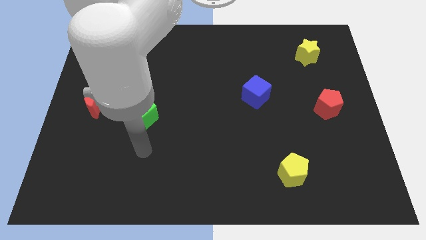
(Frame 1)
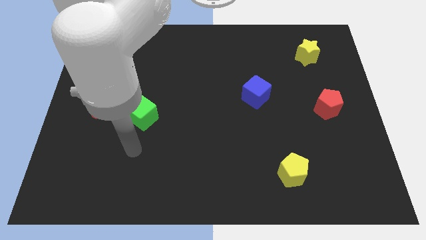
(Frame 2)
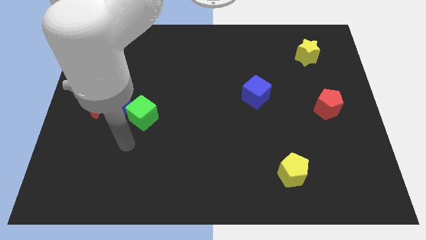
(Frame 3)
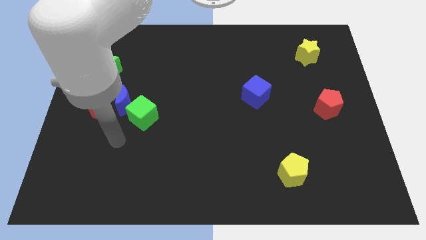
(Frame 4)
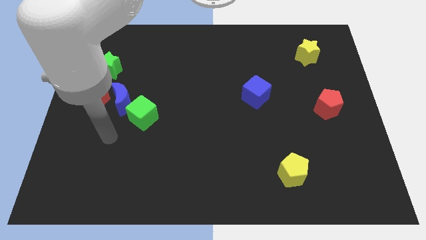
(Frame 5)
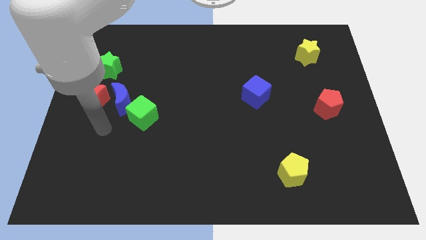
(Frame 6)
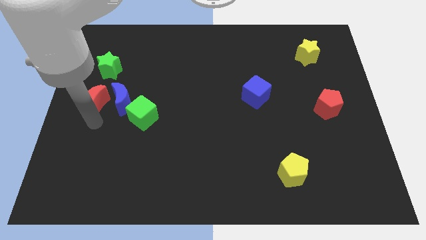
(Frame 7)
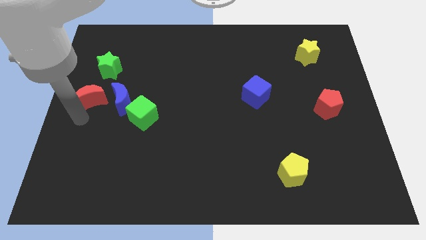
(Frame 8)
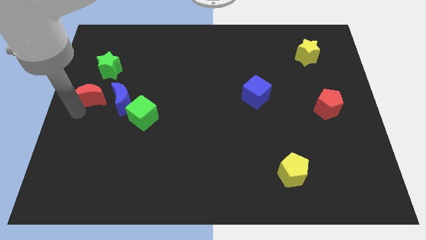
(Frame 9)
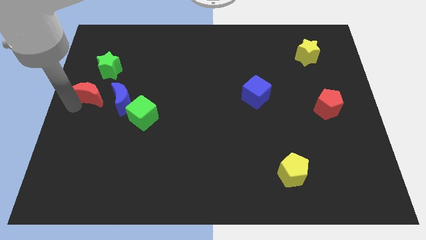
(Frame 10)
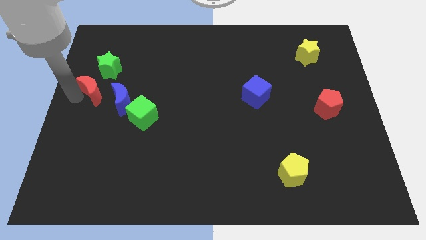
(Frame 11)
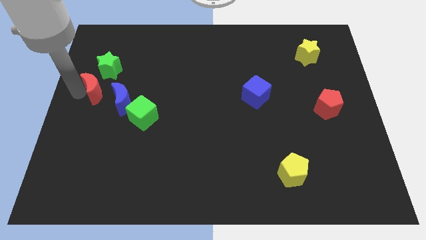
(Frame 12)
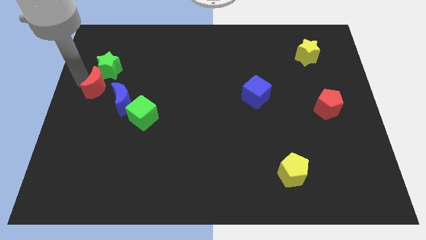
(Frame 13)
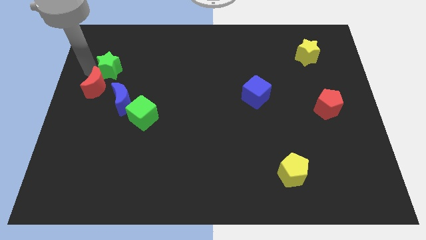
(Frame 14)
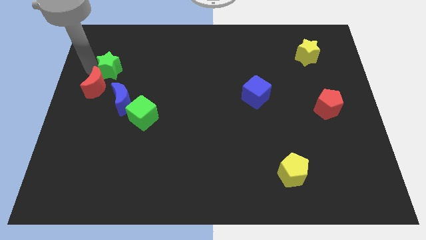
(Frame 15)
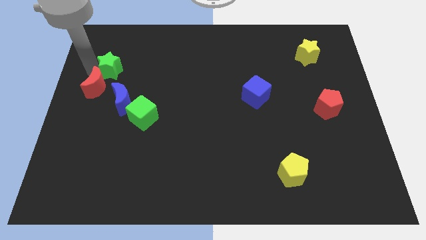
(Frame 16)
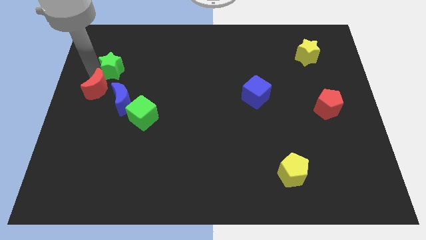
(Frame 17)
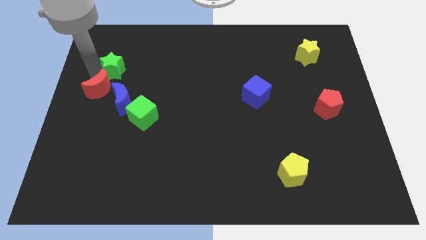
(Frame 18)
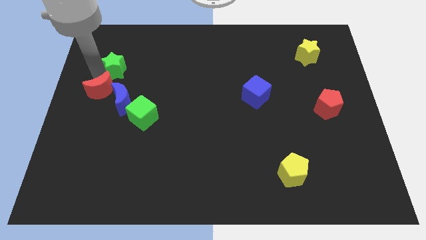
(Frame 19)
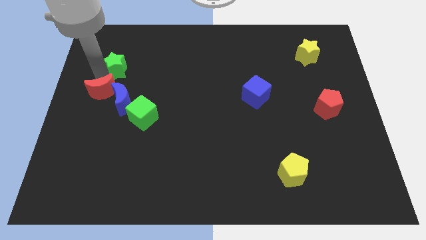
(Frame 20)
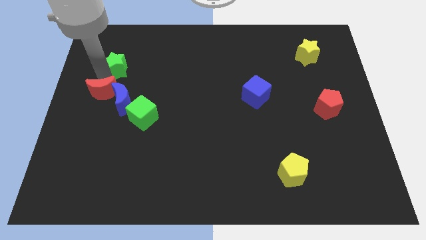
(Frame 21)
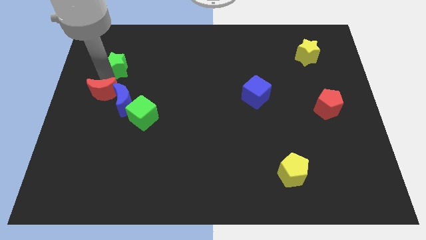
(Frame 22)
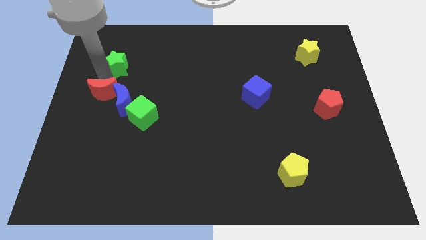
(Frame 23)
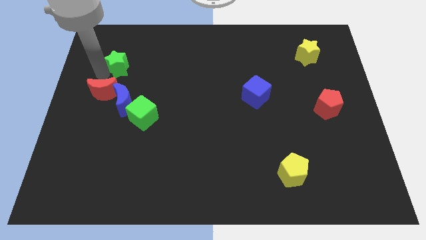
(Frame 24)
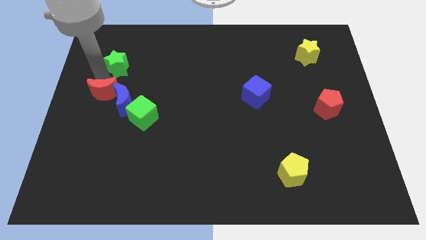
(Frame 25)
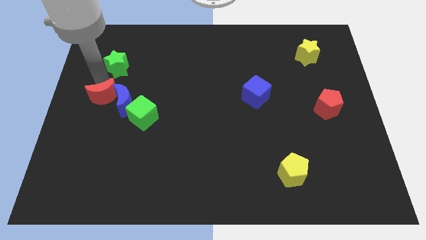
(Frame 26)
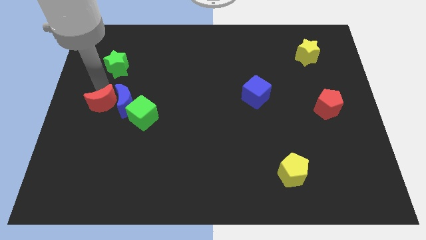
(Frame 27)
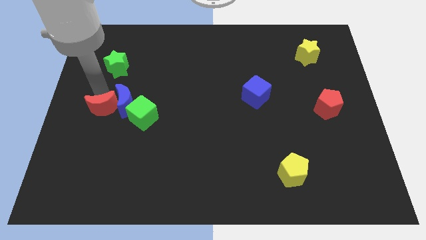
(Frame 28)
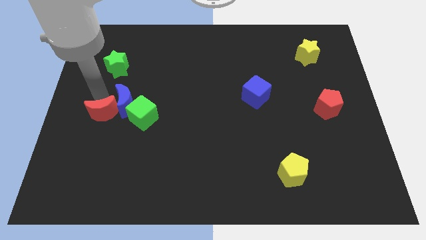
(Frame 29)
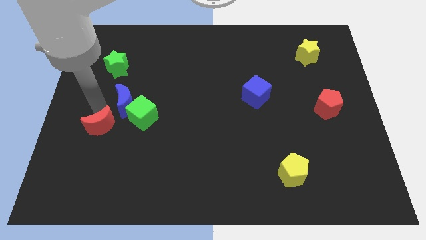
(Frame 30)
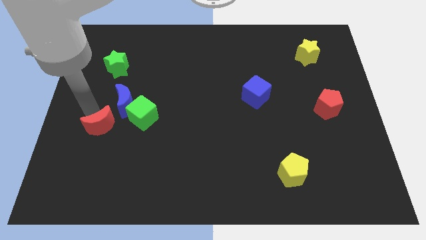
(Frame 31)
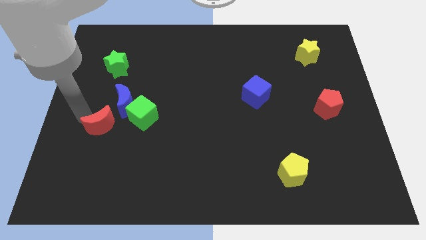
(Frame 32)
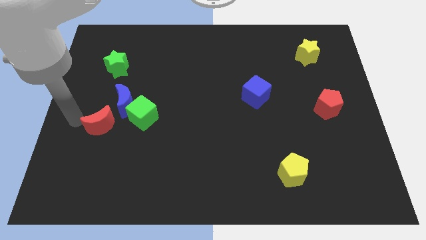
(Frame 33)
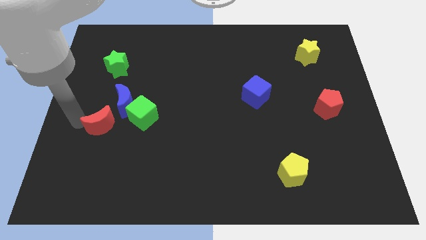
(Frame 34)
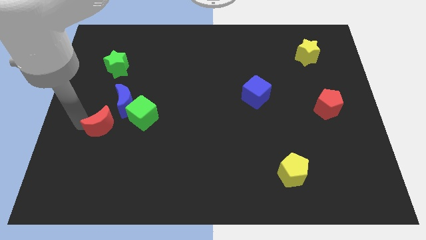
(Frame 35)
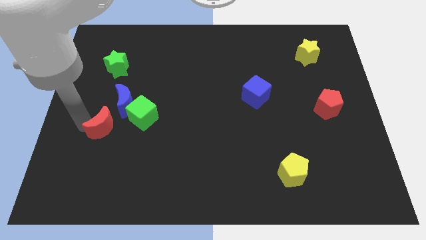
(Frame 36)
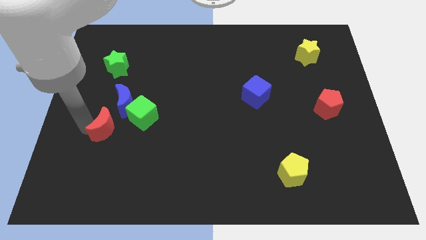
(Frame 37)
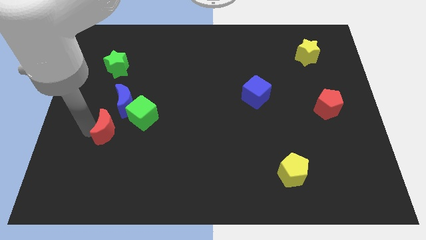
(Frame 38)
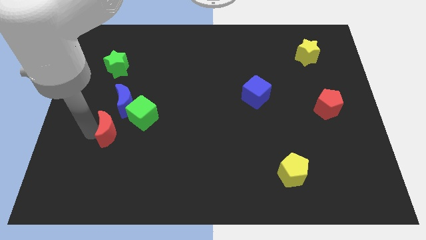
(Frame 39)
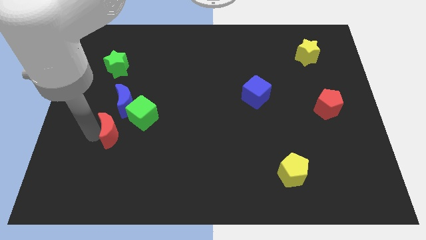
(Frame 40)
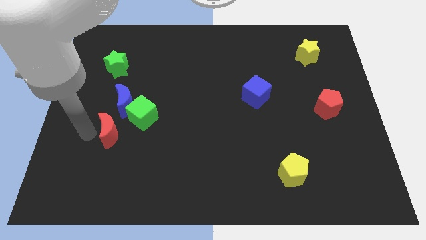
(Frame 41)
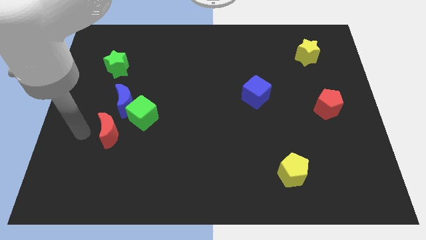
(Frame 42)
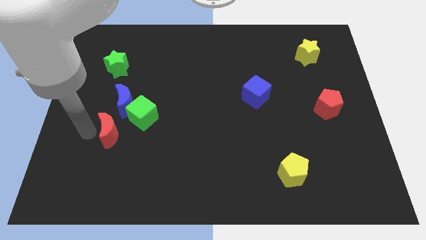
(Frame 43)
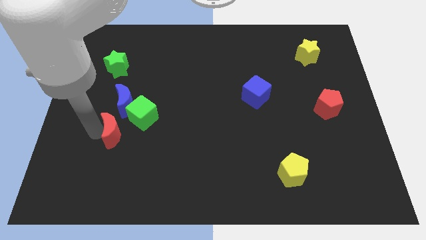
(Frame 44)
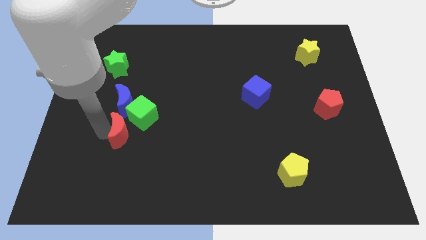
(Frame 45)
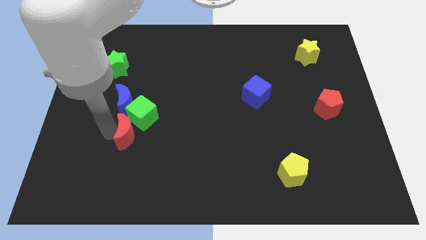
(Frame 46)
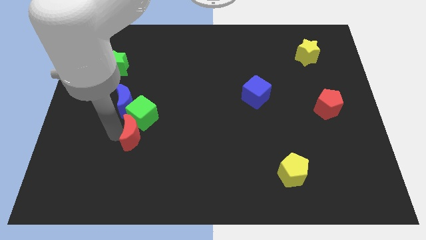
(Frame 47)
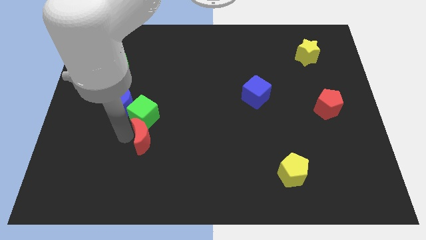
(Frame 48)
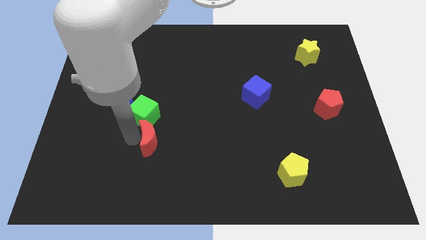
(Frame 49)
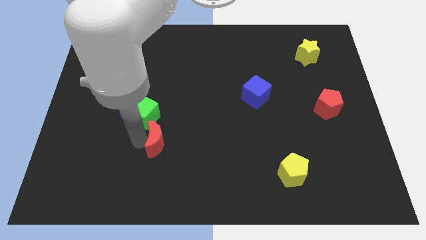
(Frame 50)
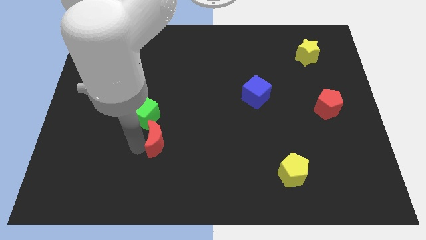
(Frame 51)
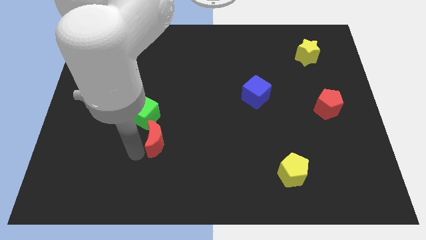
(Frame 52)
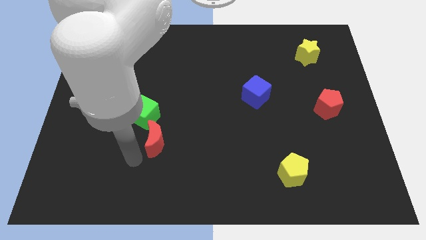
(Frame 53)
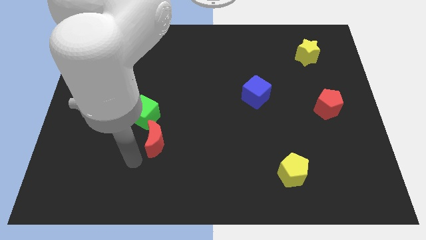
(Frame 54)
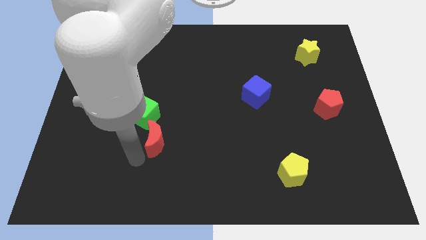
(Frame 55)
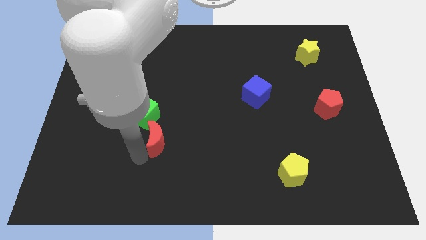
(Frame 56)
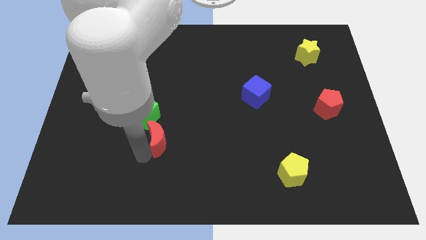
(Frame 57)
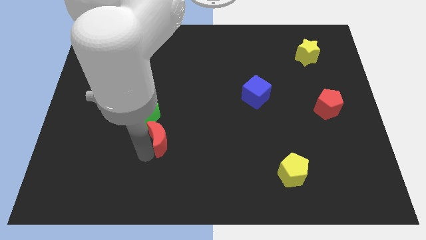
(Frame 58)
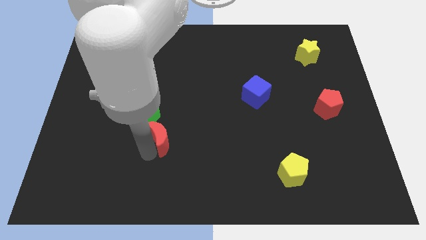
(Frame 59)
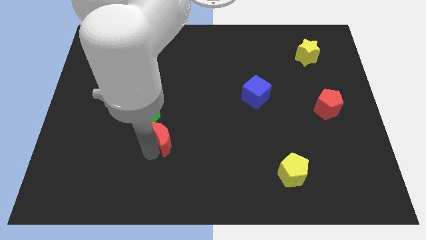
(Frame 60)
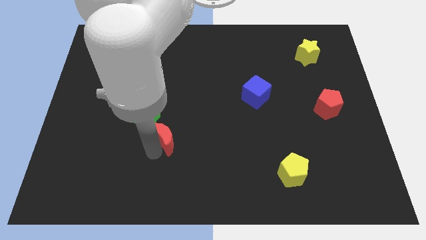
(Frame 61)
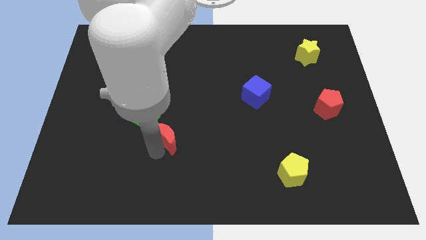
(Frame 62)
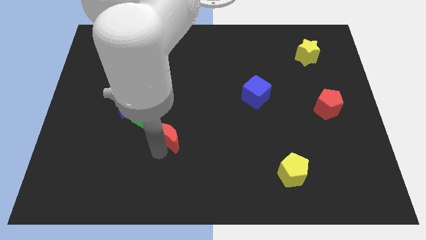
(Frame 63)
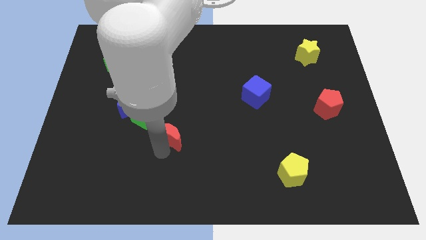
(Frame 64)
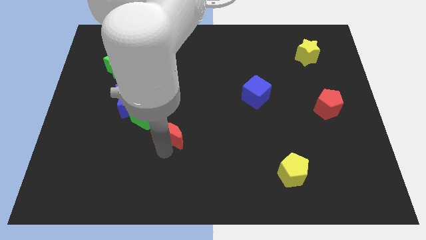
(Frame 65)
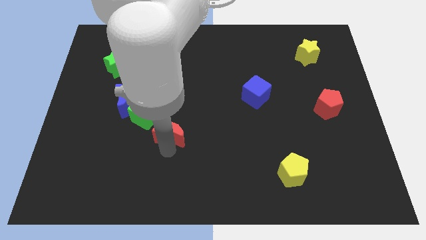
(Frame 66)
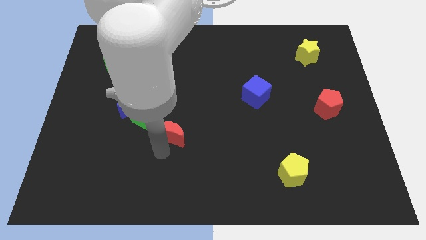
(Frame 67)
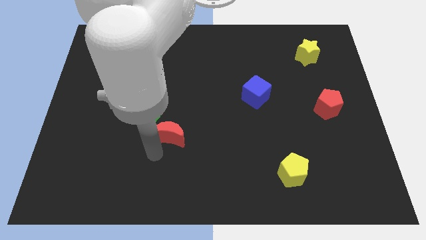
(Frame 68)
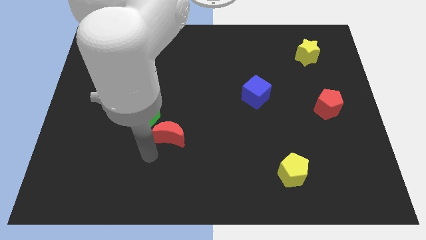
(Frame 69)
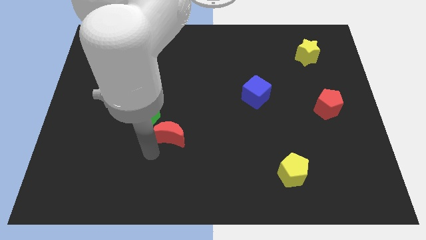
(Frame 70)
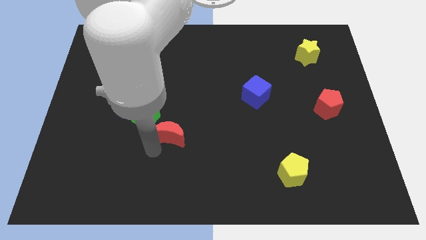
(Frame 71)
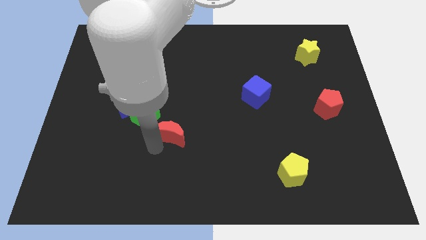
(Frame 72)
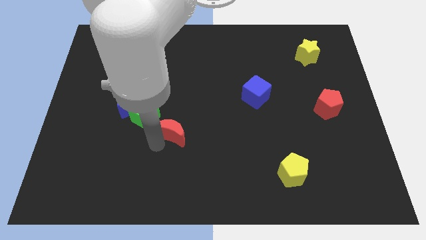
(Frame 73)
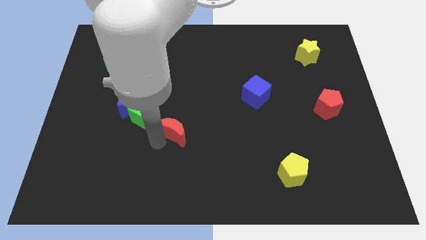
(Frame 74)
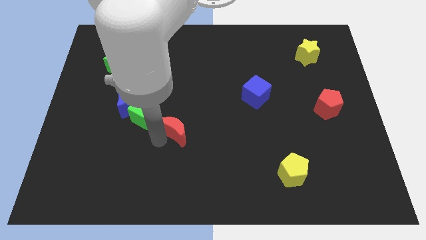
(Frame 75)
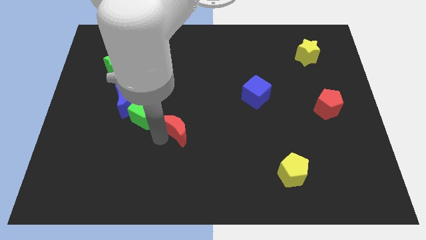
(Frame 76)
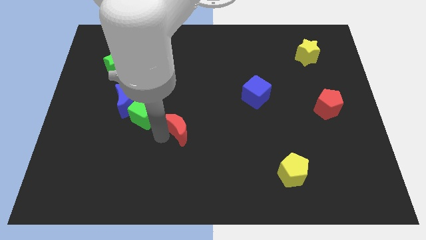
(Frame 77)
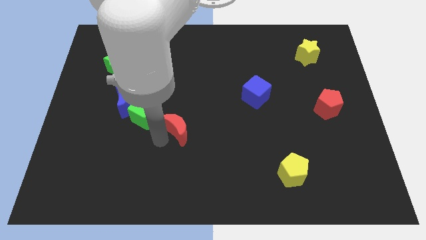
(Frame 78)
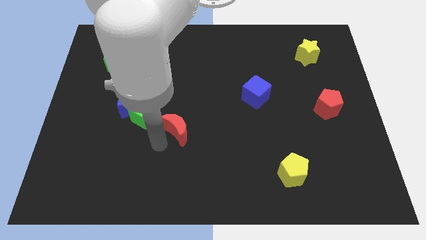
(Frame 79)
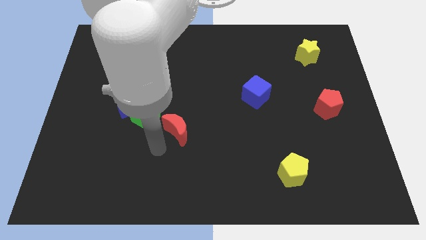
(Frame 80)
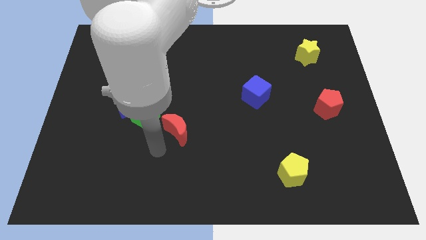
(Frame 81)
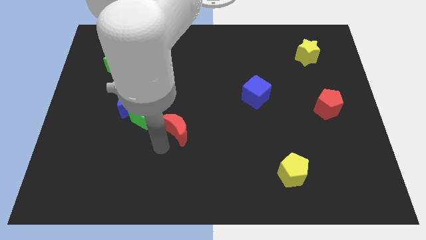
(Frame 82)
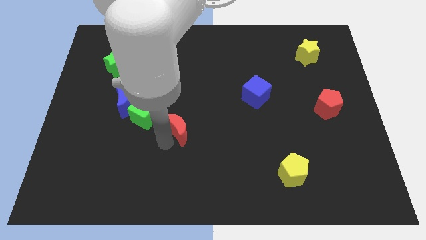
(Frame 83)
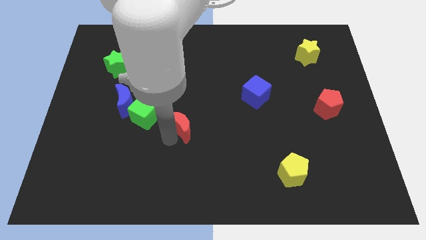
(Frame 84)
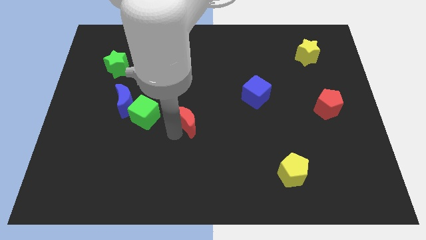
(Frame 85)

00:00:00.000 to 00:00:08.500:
move the red moon right
